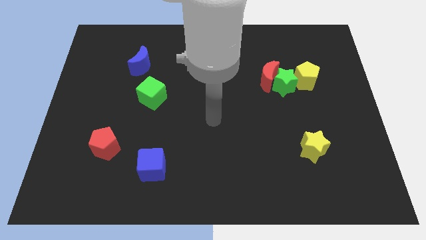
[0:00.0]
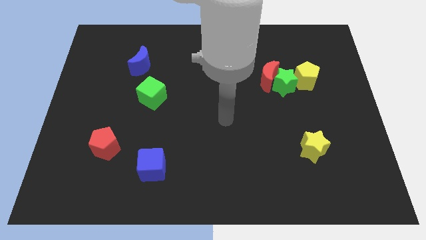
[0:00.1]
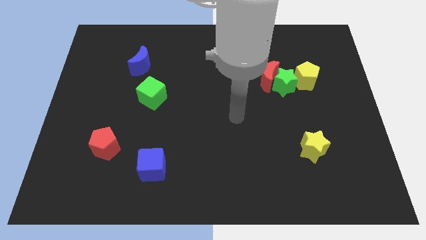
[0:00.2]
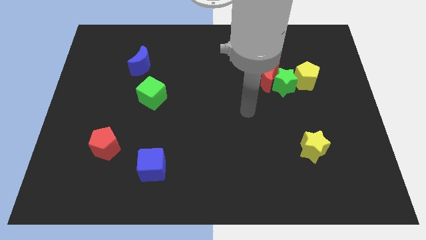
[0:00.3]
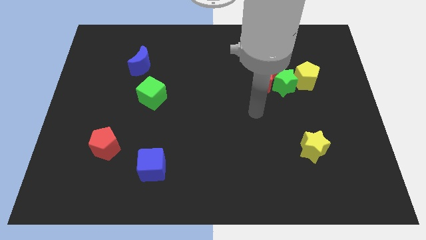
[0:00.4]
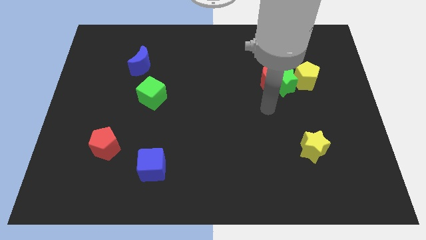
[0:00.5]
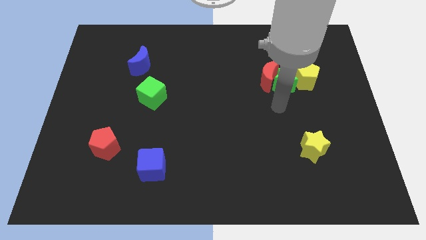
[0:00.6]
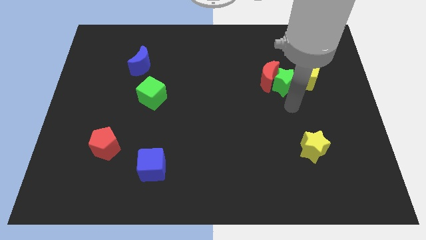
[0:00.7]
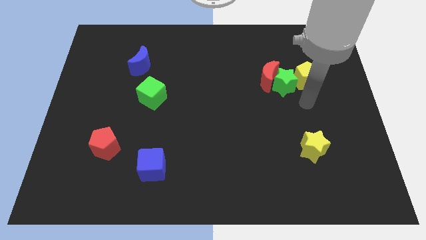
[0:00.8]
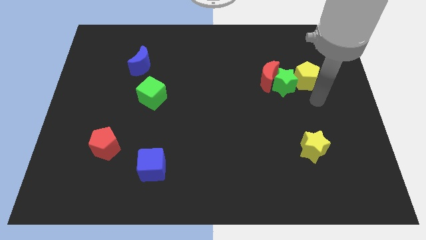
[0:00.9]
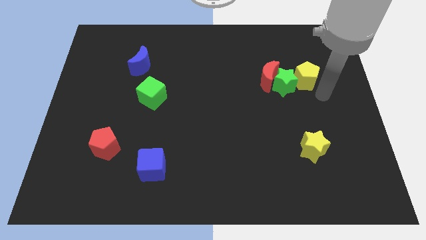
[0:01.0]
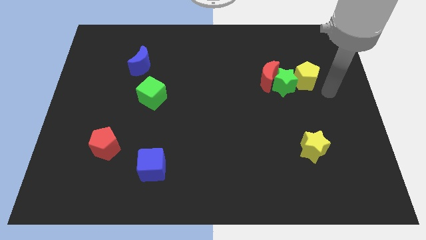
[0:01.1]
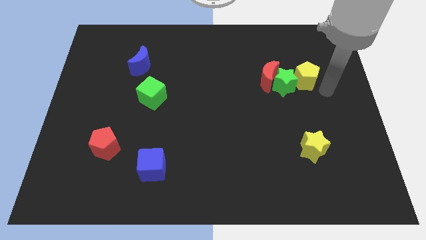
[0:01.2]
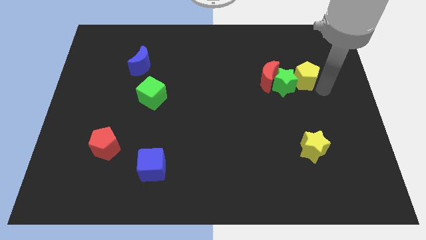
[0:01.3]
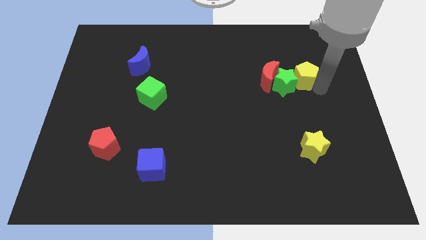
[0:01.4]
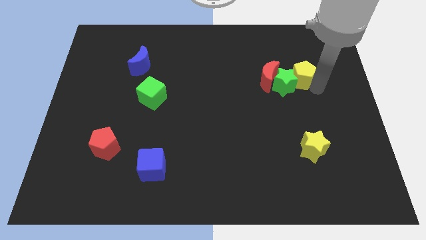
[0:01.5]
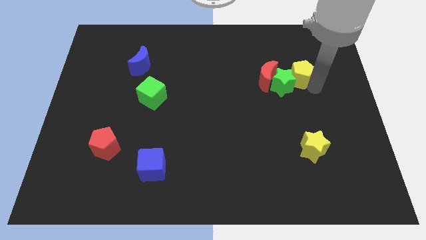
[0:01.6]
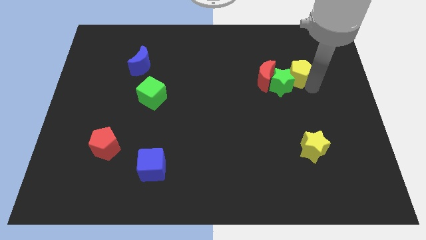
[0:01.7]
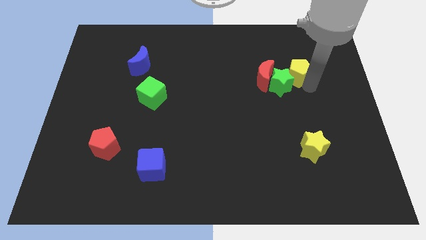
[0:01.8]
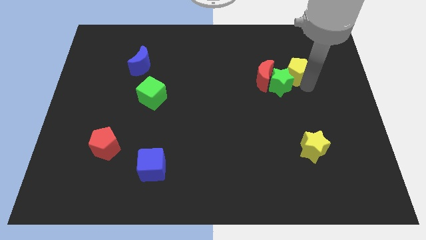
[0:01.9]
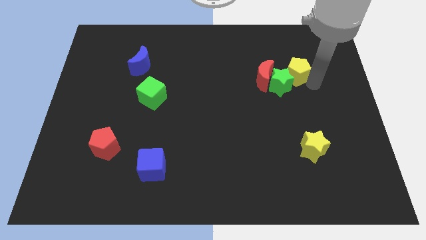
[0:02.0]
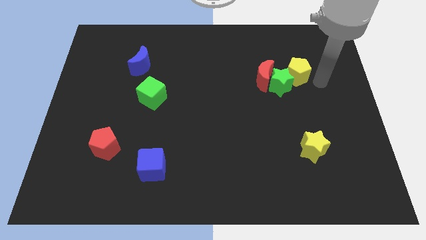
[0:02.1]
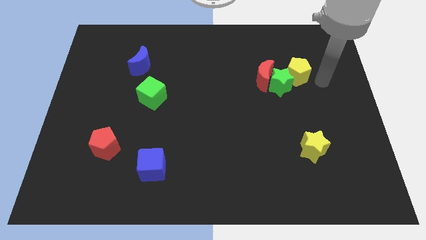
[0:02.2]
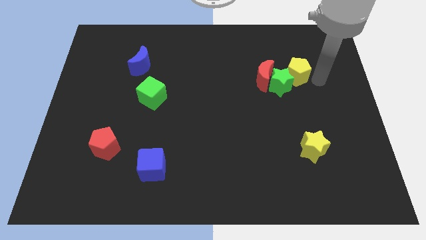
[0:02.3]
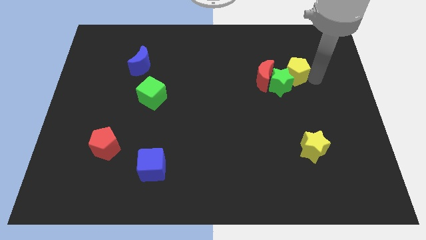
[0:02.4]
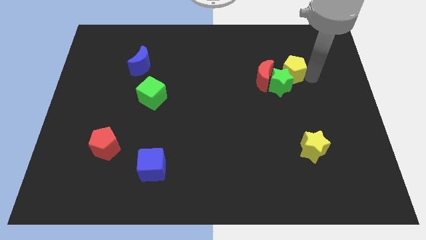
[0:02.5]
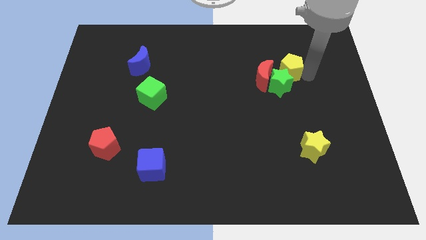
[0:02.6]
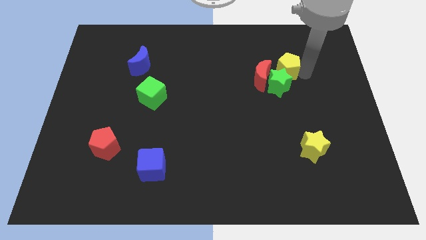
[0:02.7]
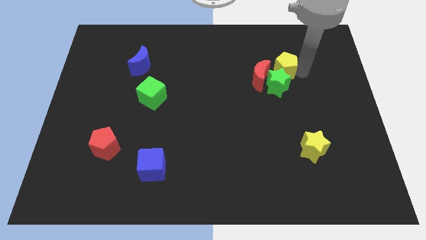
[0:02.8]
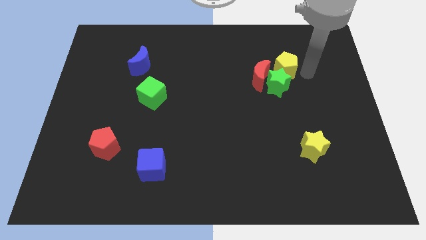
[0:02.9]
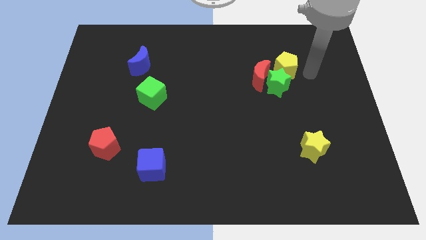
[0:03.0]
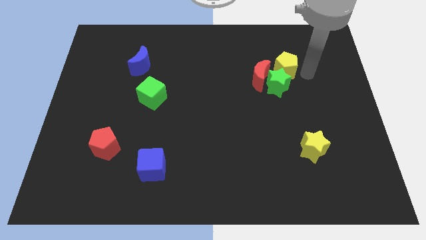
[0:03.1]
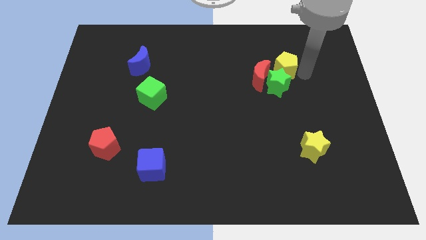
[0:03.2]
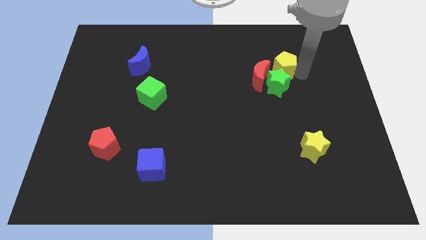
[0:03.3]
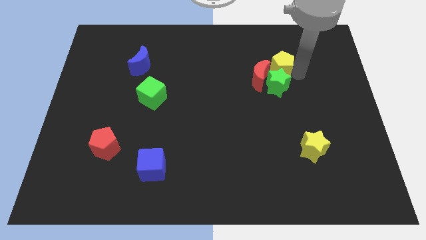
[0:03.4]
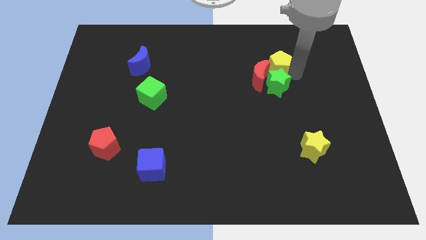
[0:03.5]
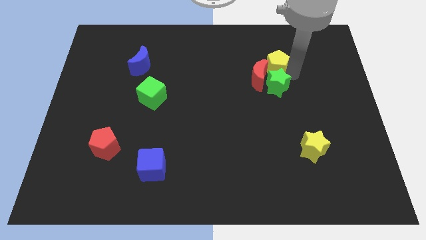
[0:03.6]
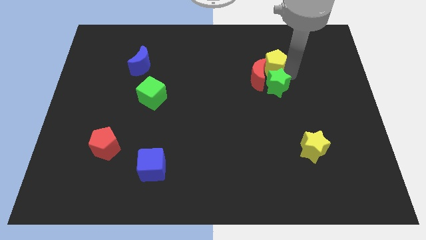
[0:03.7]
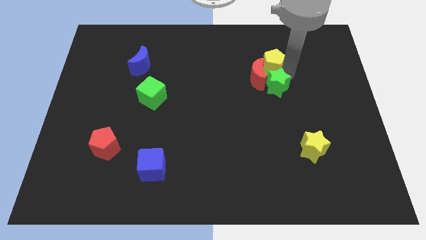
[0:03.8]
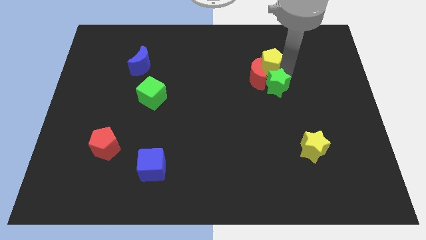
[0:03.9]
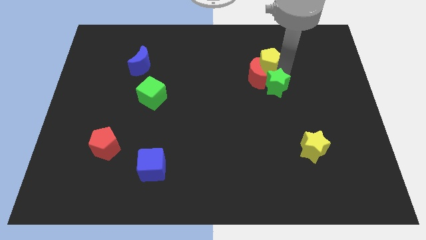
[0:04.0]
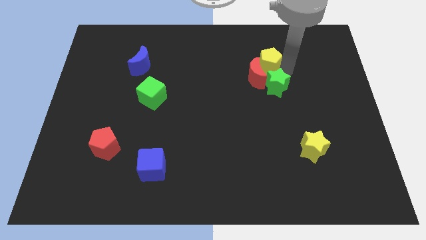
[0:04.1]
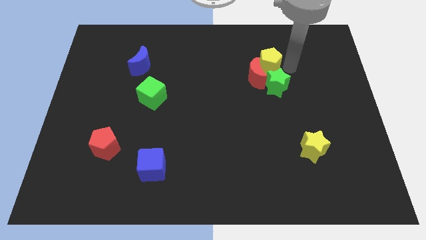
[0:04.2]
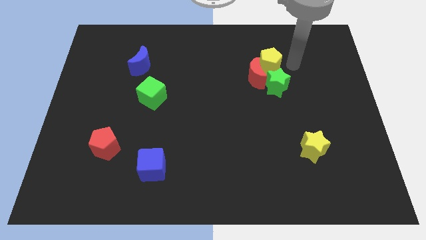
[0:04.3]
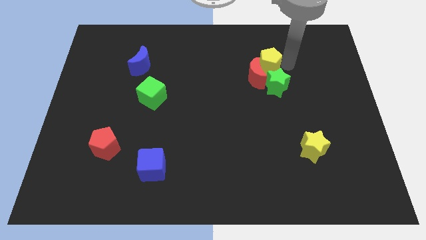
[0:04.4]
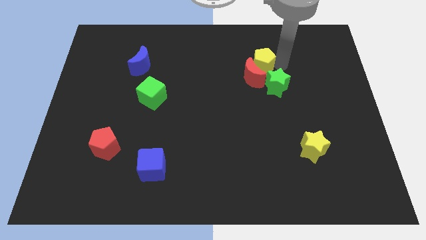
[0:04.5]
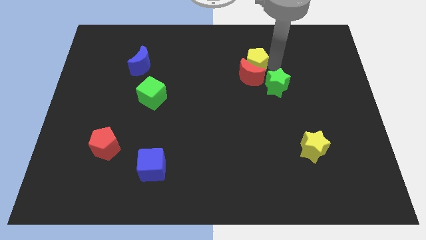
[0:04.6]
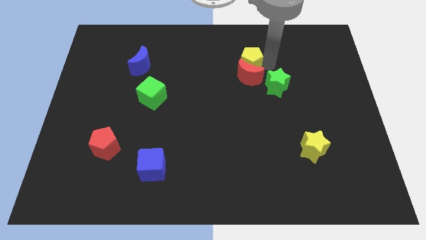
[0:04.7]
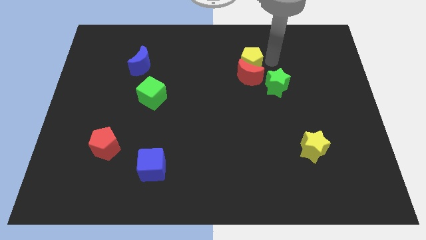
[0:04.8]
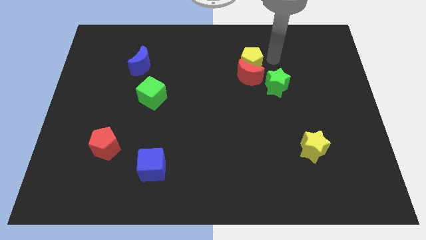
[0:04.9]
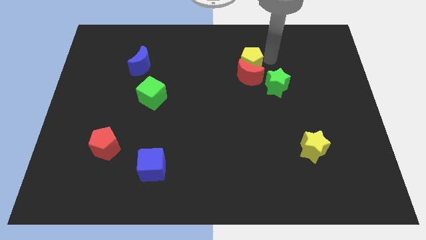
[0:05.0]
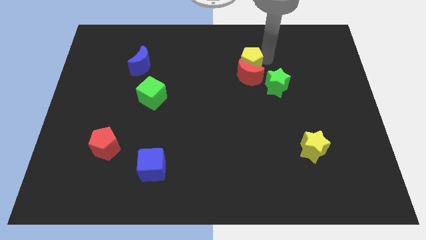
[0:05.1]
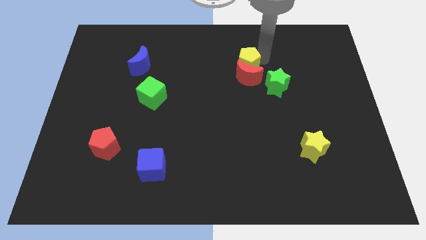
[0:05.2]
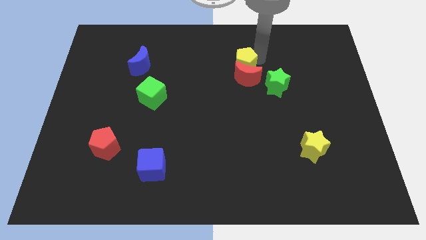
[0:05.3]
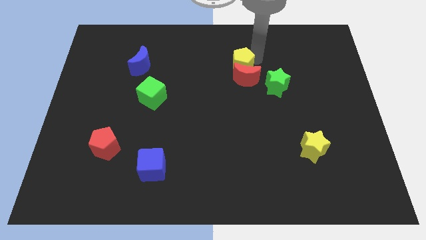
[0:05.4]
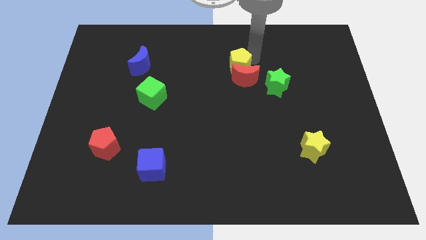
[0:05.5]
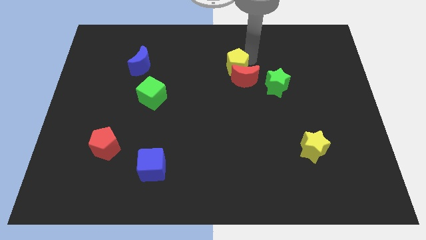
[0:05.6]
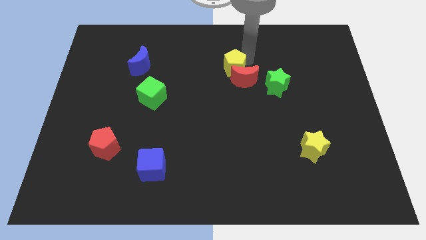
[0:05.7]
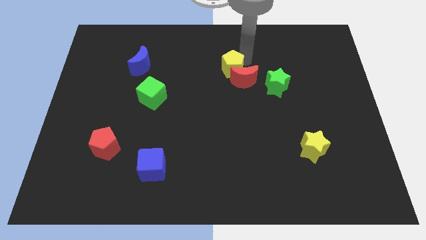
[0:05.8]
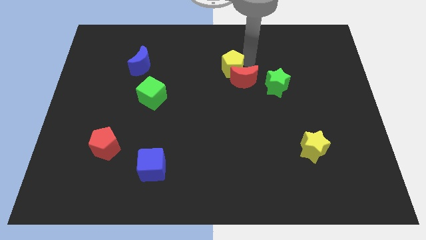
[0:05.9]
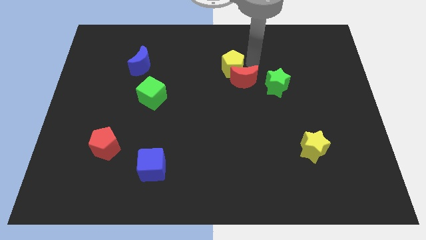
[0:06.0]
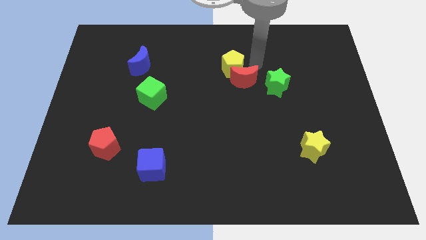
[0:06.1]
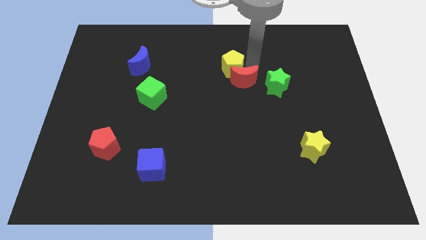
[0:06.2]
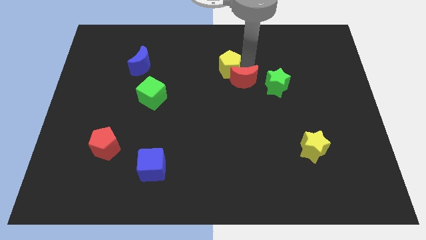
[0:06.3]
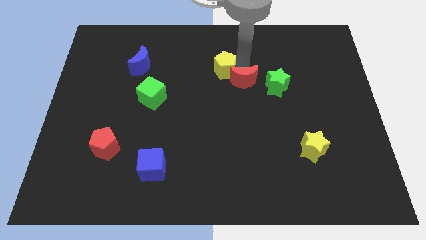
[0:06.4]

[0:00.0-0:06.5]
slide the yellow pentagon left

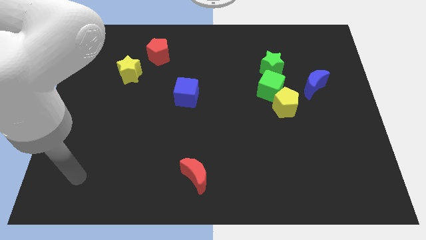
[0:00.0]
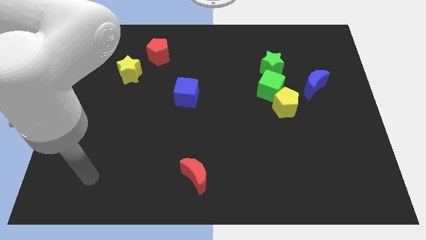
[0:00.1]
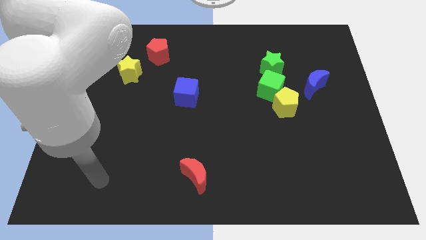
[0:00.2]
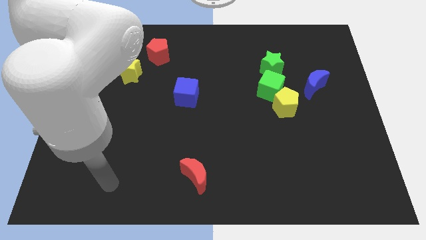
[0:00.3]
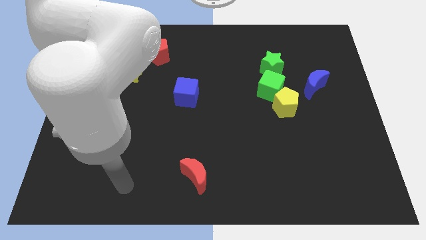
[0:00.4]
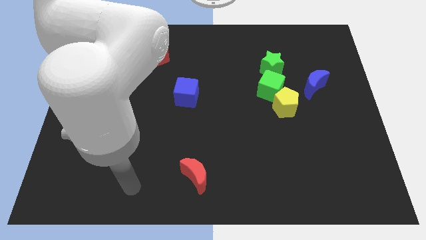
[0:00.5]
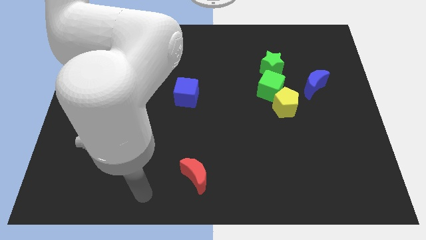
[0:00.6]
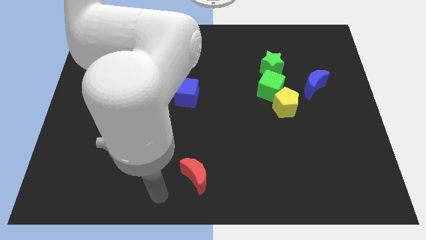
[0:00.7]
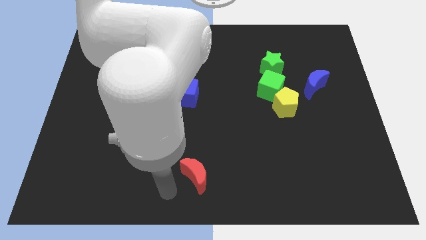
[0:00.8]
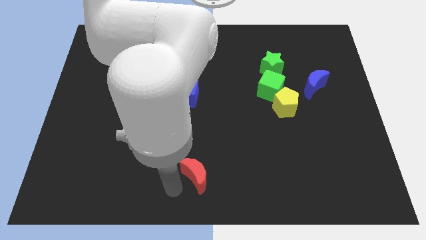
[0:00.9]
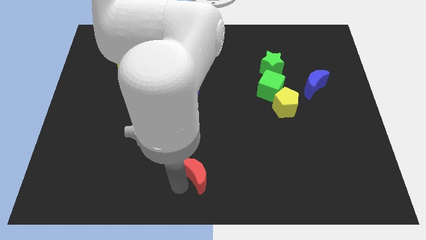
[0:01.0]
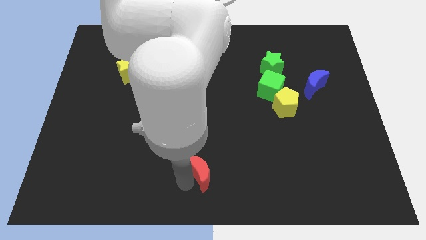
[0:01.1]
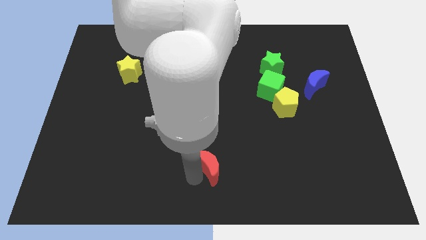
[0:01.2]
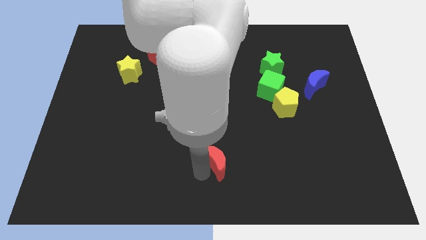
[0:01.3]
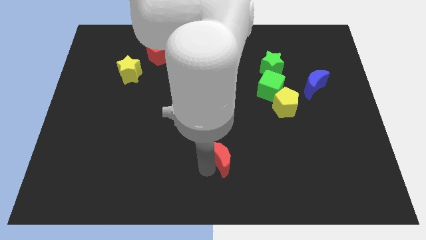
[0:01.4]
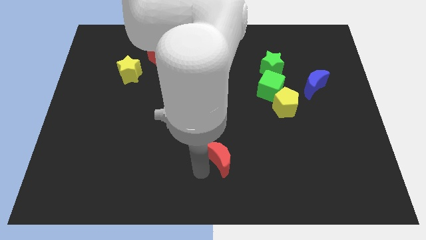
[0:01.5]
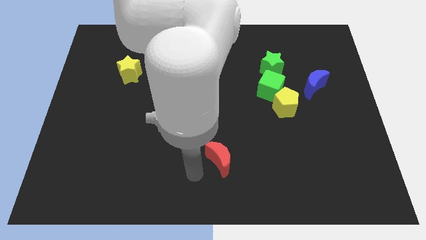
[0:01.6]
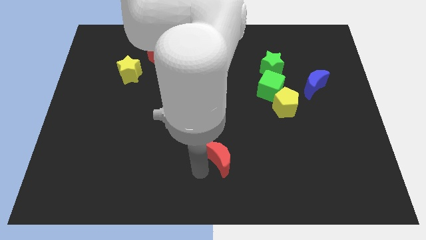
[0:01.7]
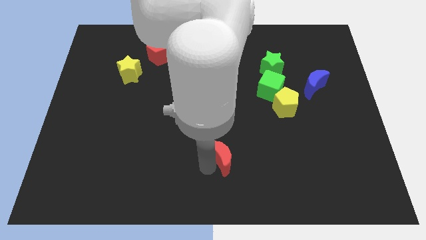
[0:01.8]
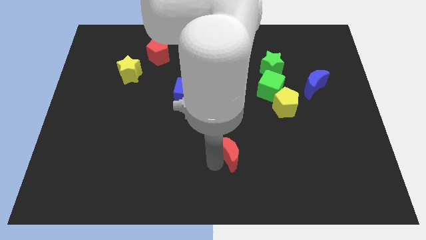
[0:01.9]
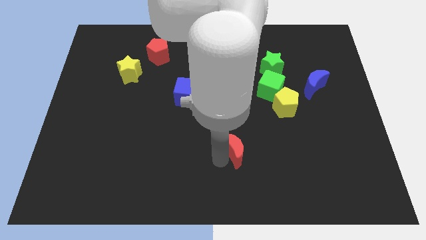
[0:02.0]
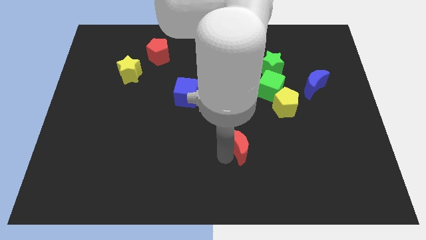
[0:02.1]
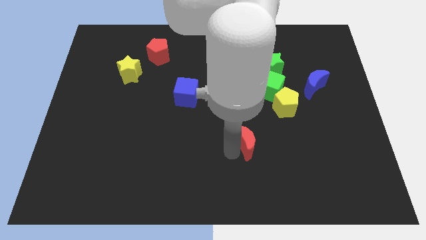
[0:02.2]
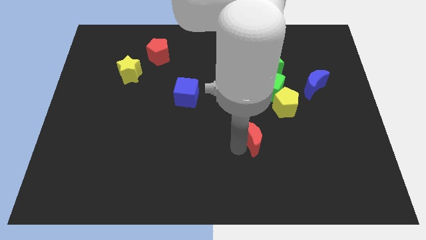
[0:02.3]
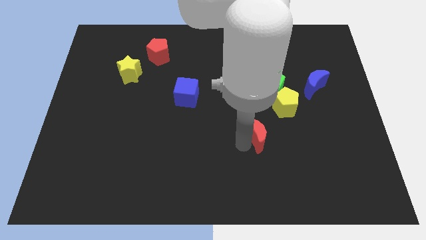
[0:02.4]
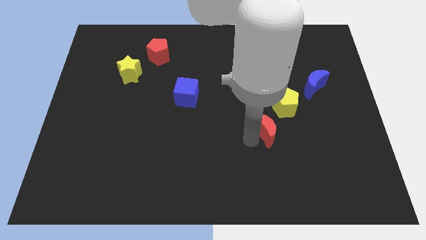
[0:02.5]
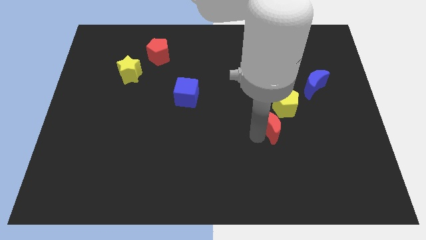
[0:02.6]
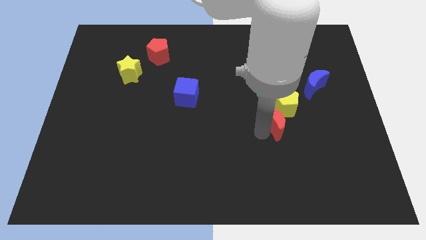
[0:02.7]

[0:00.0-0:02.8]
move the red moon upwards and to the right diagonally
